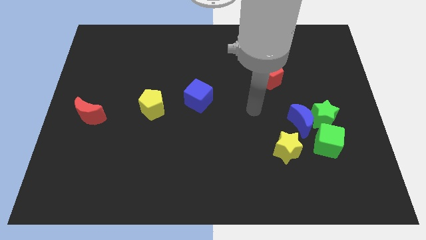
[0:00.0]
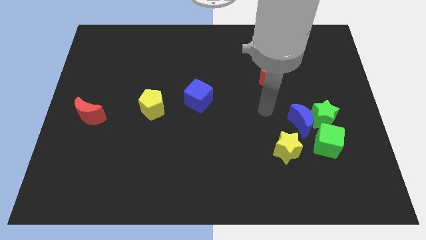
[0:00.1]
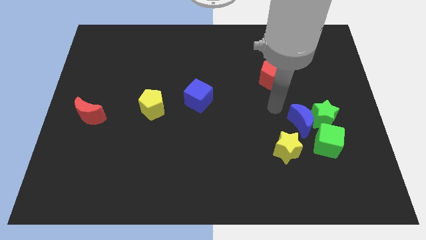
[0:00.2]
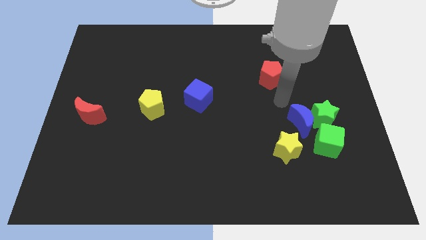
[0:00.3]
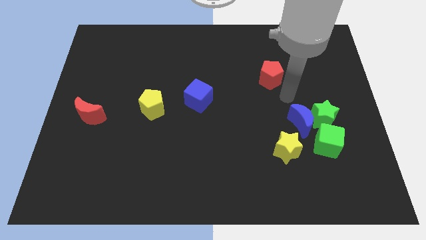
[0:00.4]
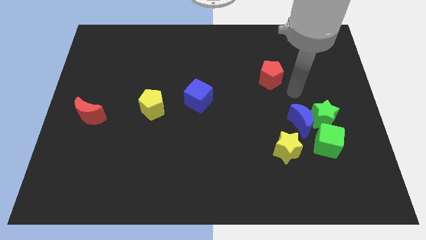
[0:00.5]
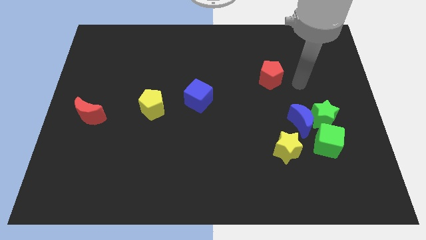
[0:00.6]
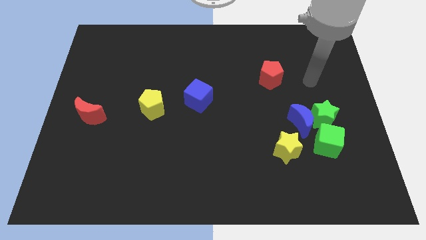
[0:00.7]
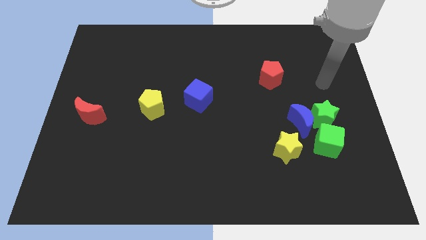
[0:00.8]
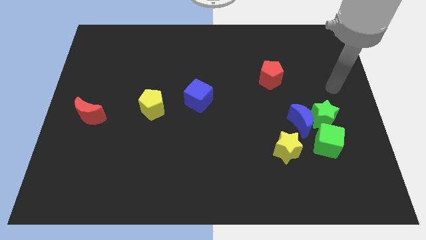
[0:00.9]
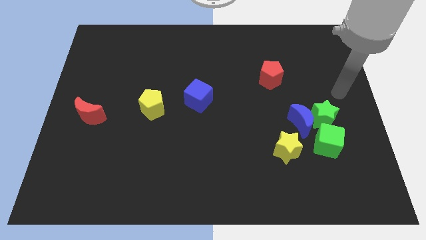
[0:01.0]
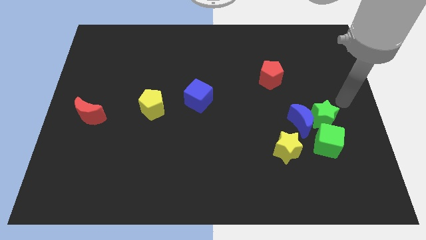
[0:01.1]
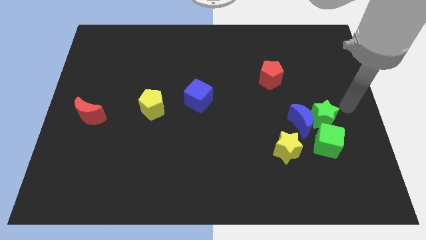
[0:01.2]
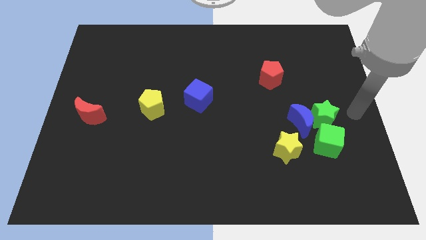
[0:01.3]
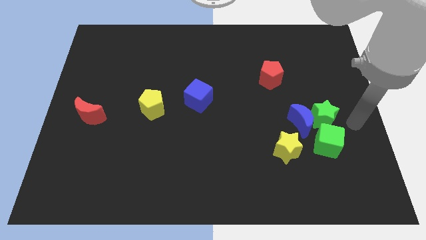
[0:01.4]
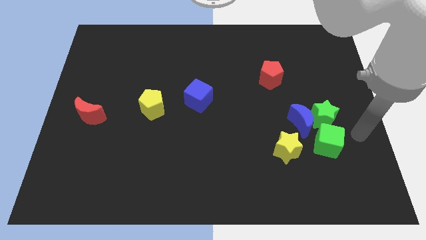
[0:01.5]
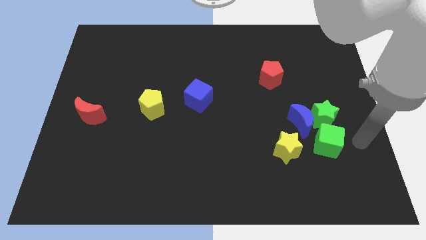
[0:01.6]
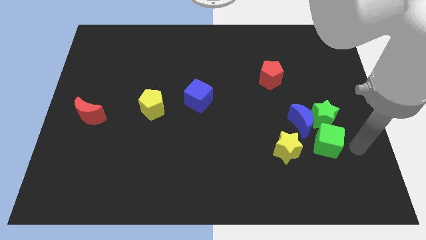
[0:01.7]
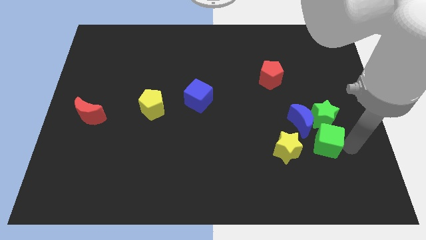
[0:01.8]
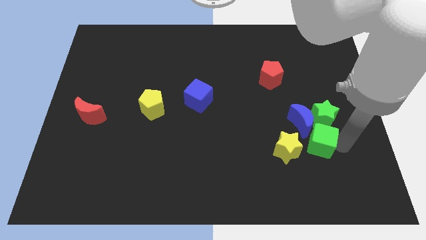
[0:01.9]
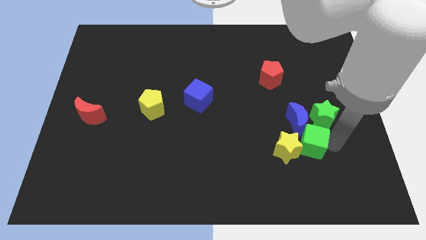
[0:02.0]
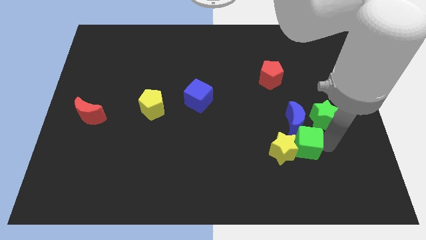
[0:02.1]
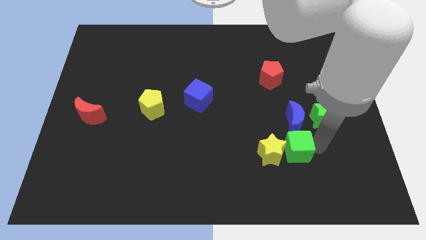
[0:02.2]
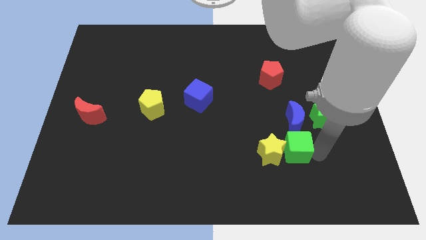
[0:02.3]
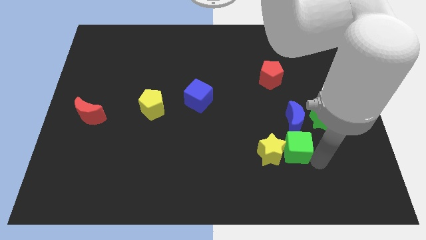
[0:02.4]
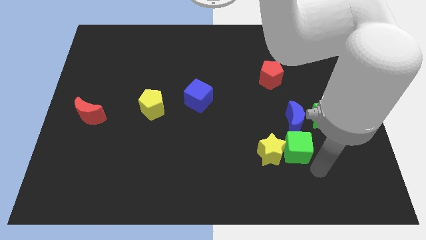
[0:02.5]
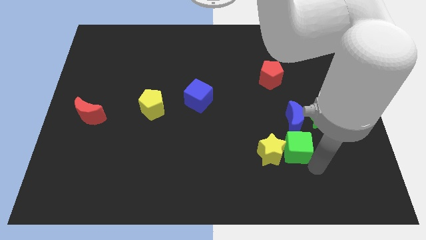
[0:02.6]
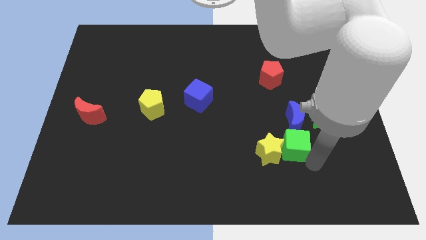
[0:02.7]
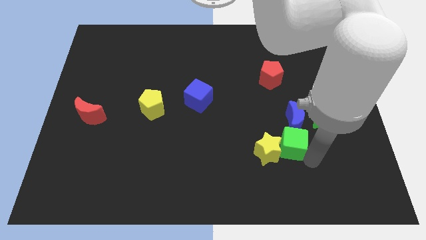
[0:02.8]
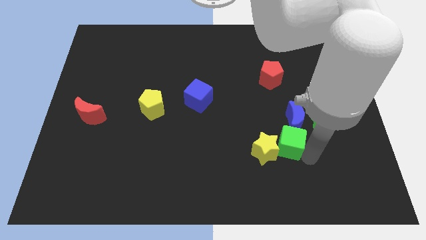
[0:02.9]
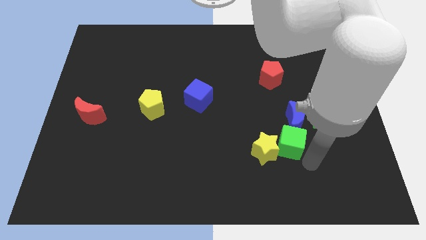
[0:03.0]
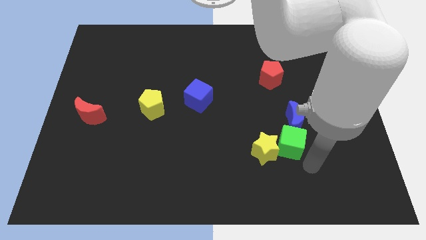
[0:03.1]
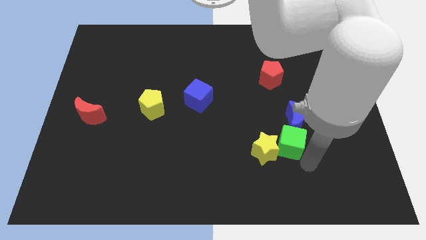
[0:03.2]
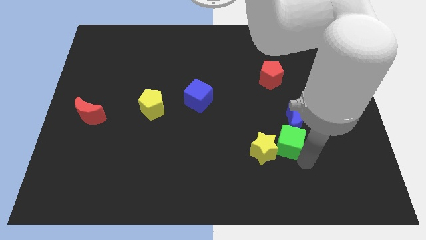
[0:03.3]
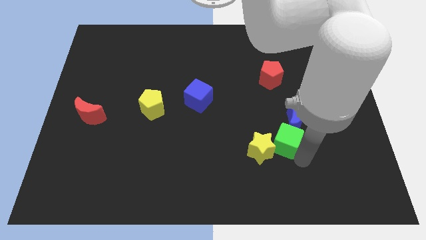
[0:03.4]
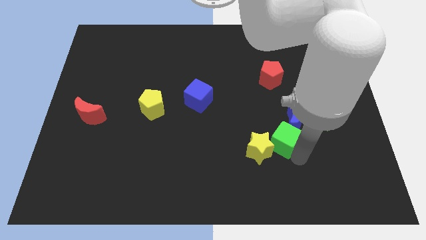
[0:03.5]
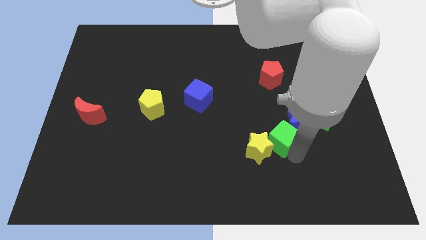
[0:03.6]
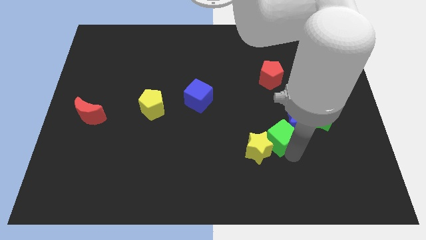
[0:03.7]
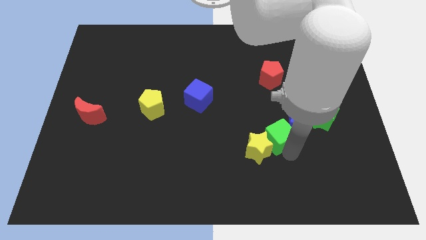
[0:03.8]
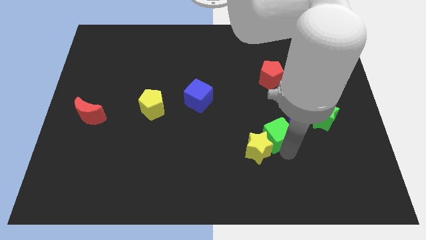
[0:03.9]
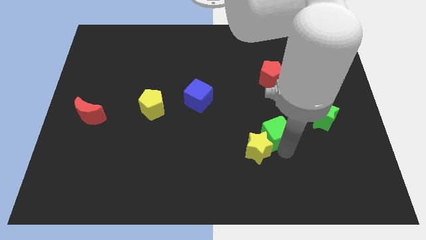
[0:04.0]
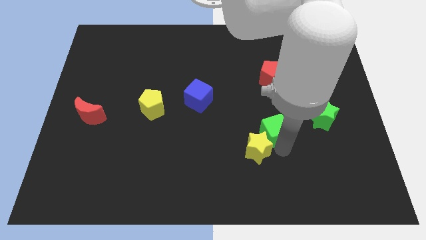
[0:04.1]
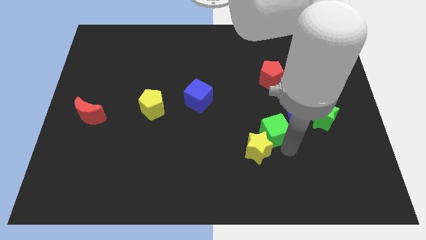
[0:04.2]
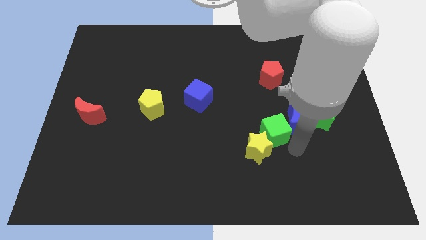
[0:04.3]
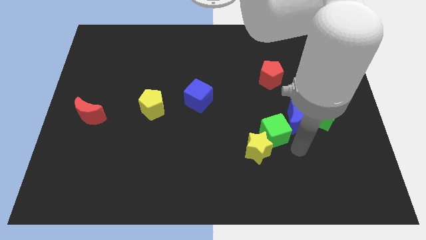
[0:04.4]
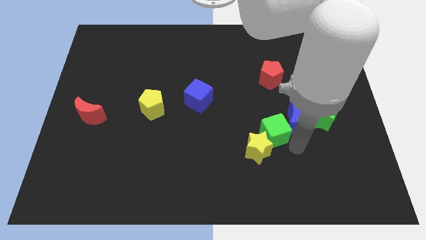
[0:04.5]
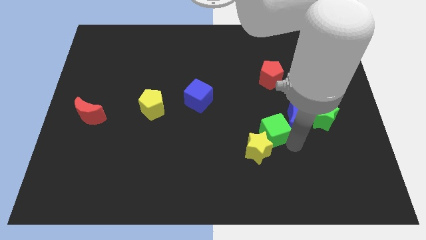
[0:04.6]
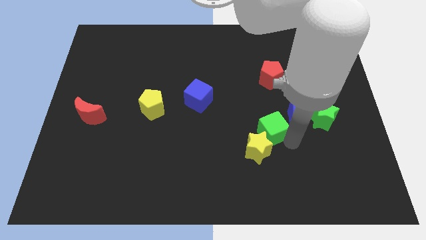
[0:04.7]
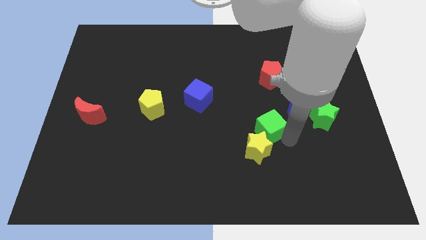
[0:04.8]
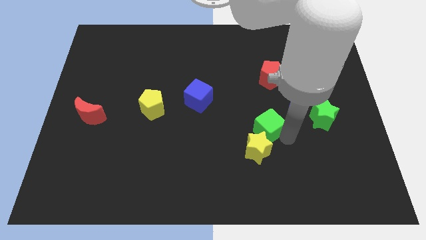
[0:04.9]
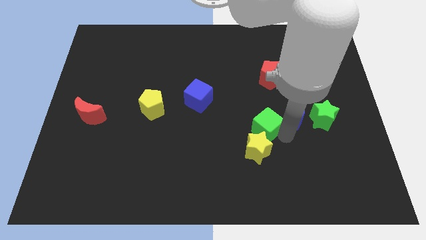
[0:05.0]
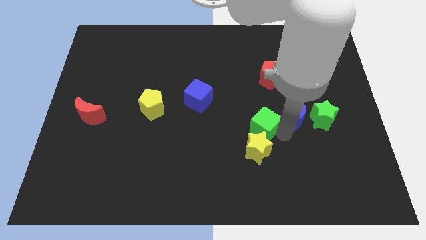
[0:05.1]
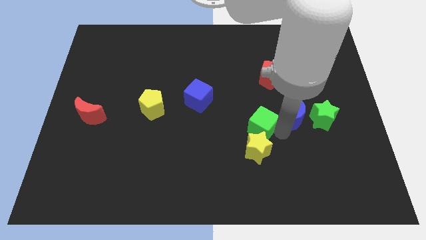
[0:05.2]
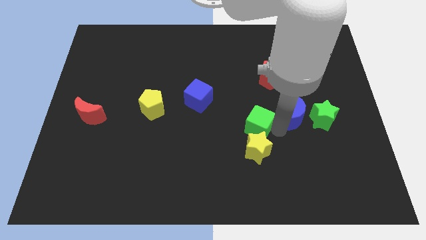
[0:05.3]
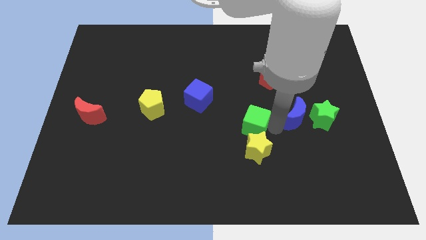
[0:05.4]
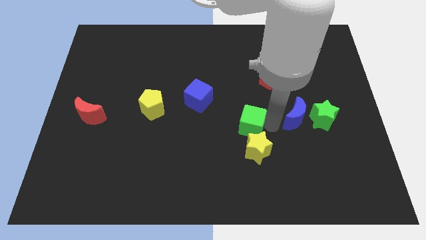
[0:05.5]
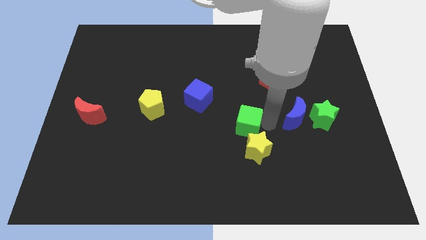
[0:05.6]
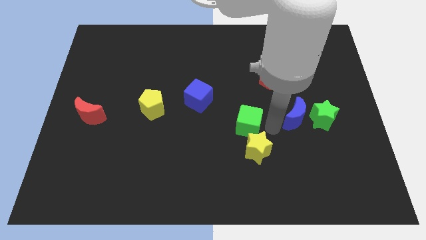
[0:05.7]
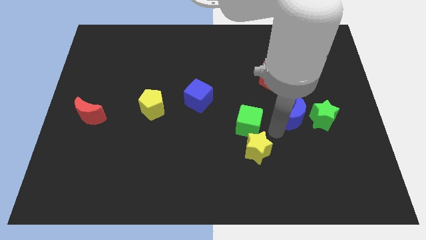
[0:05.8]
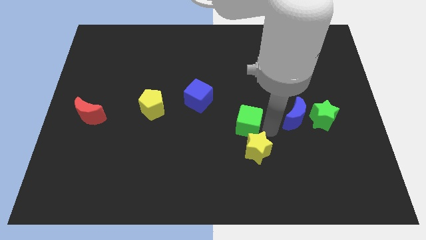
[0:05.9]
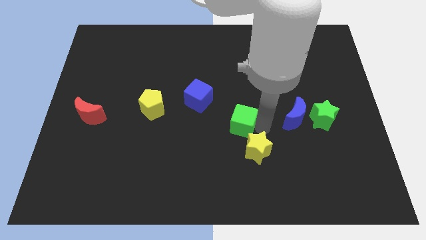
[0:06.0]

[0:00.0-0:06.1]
push the green cube to the bottom right of the blue cube

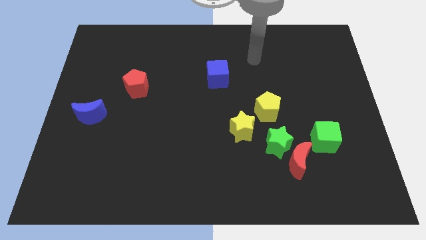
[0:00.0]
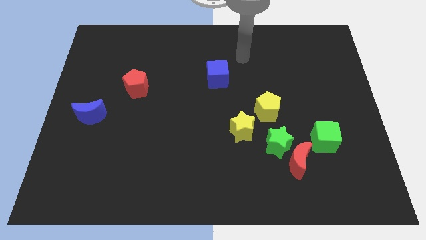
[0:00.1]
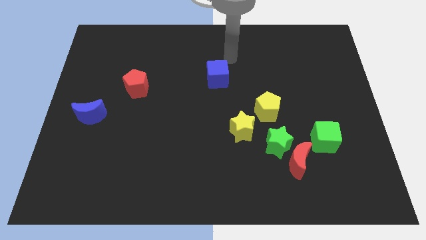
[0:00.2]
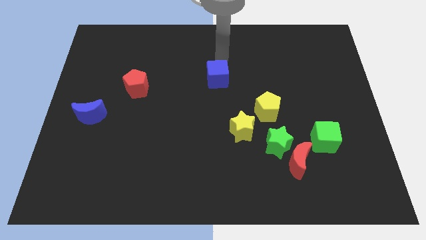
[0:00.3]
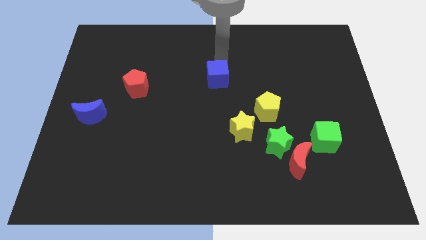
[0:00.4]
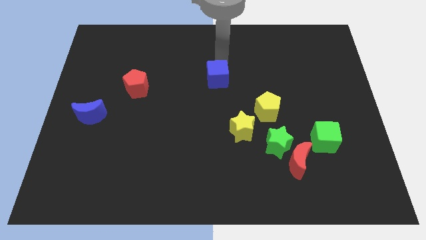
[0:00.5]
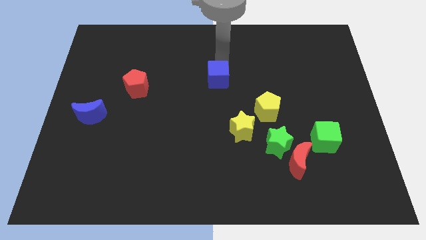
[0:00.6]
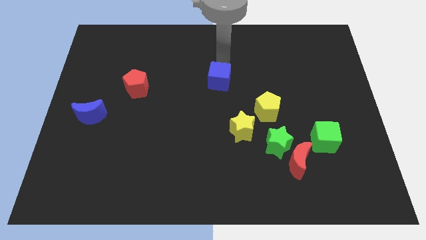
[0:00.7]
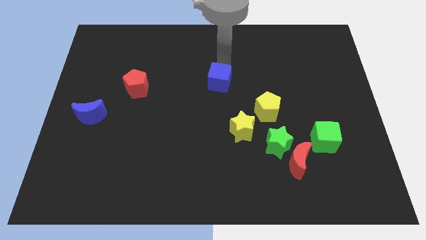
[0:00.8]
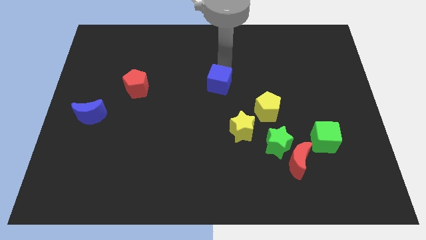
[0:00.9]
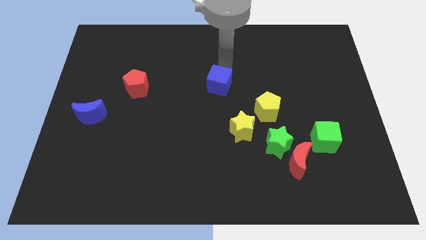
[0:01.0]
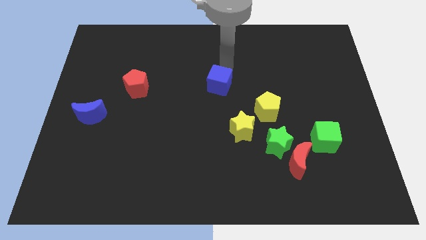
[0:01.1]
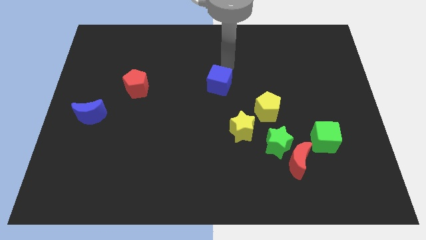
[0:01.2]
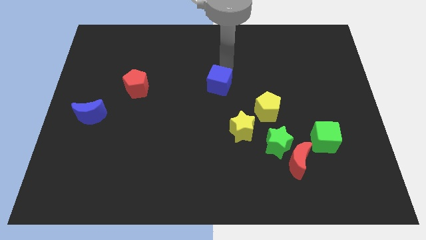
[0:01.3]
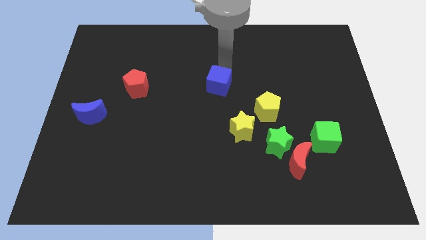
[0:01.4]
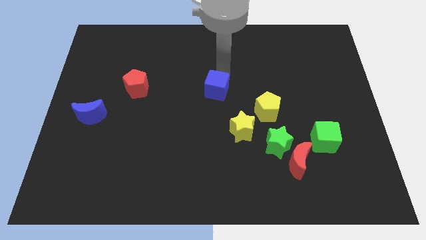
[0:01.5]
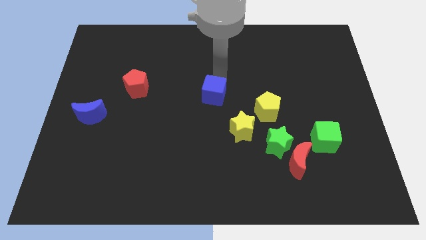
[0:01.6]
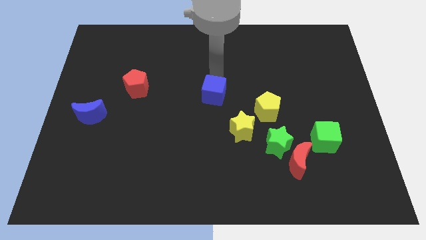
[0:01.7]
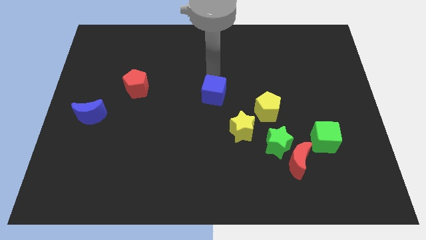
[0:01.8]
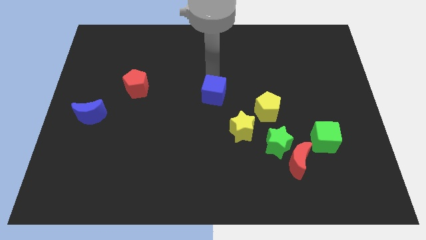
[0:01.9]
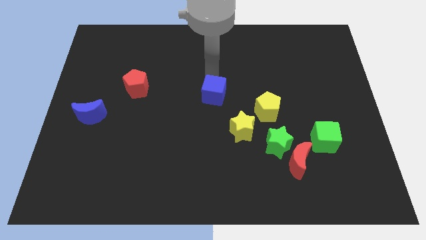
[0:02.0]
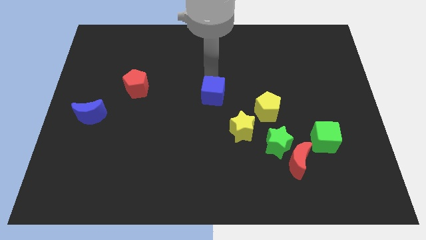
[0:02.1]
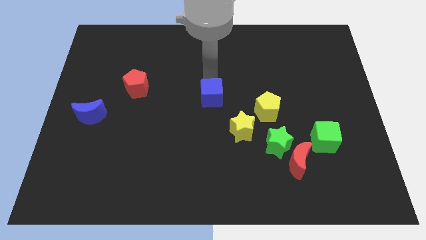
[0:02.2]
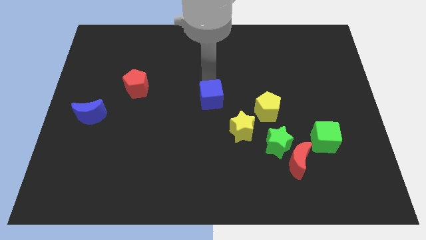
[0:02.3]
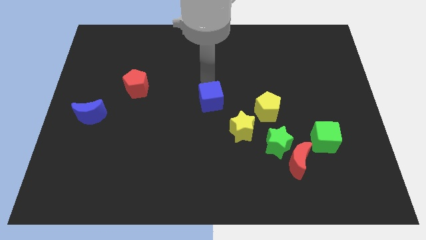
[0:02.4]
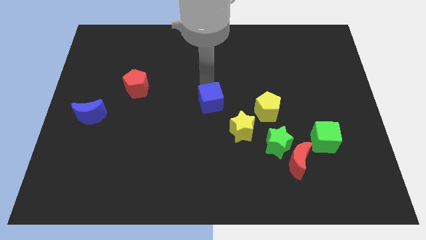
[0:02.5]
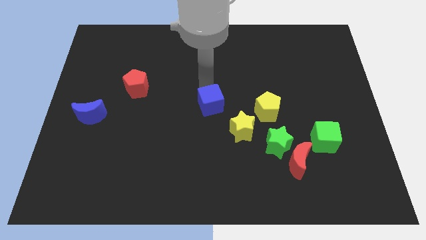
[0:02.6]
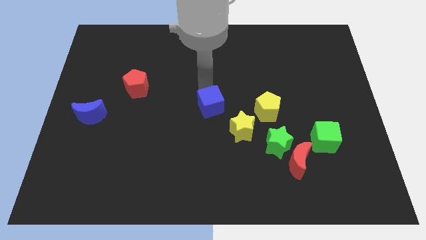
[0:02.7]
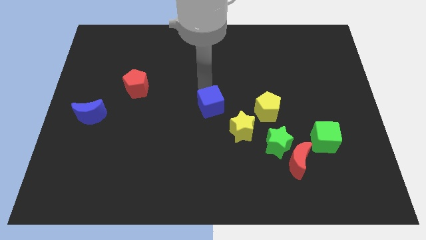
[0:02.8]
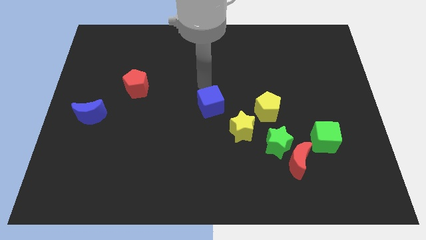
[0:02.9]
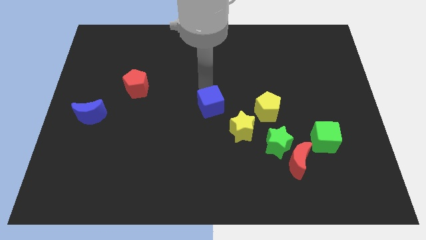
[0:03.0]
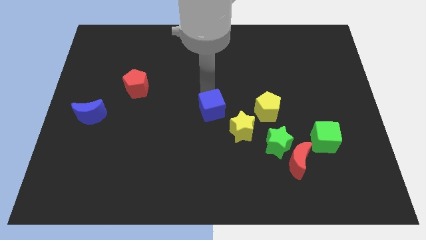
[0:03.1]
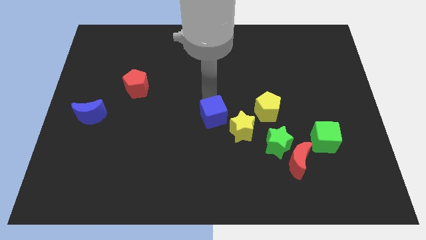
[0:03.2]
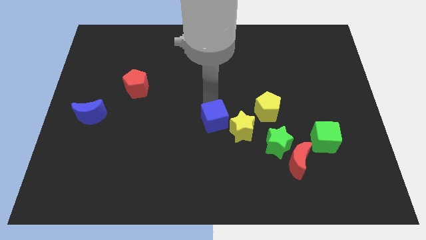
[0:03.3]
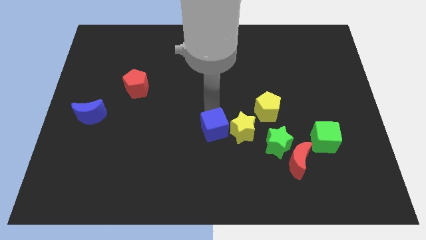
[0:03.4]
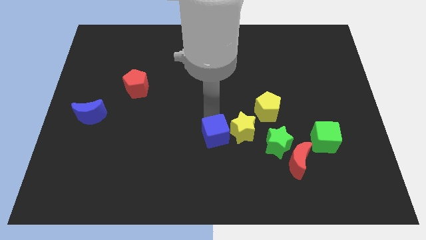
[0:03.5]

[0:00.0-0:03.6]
slide the blue cube left of the green star
